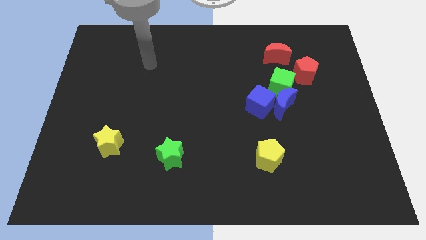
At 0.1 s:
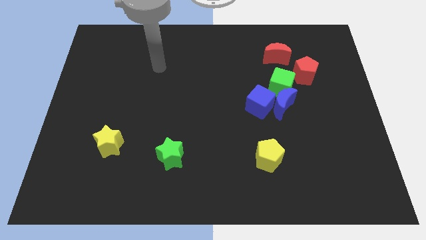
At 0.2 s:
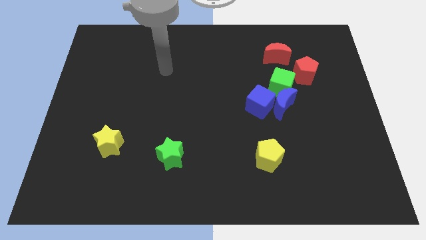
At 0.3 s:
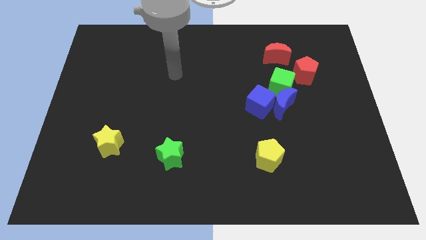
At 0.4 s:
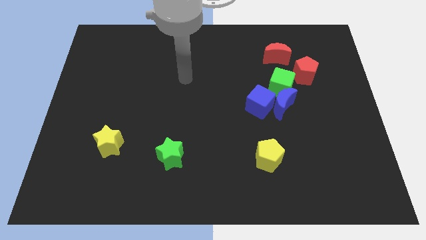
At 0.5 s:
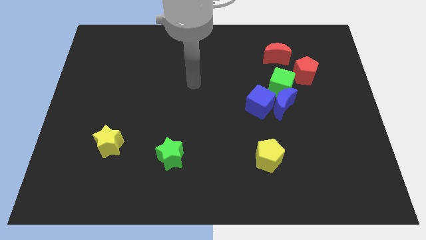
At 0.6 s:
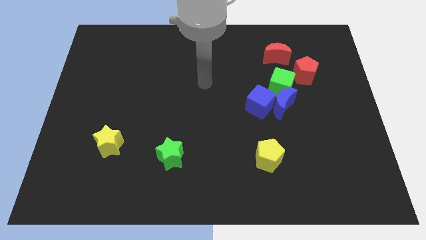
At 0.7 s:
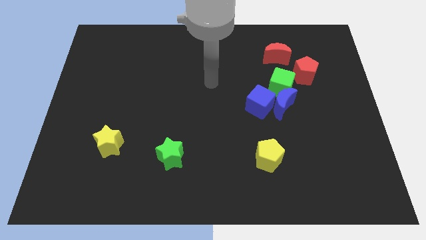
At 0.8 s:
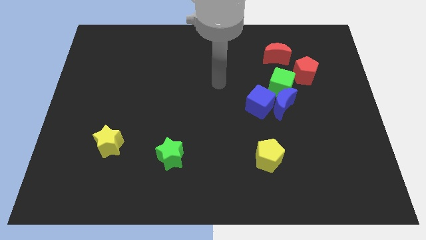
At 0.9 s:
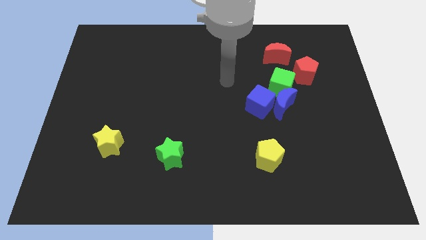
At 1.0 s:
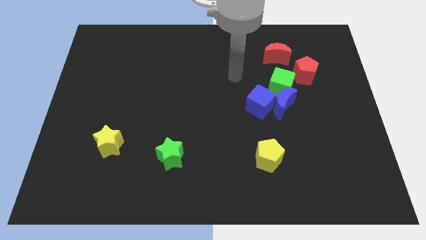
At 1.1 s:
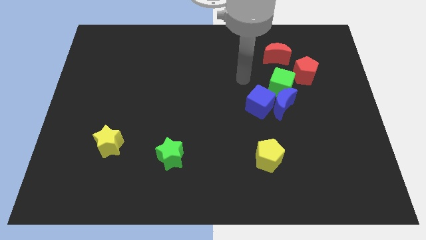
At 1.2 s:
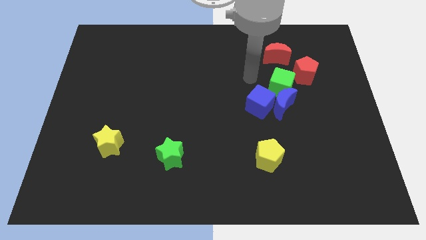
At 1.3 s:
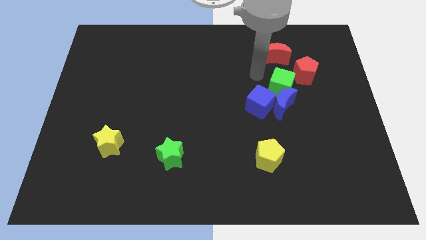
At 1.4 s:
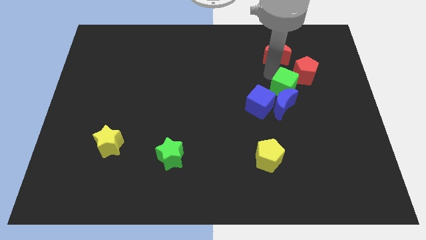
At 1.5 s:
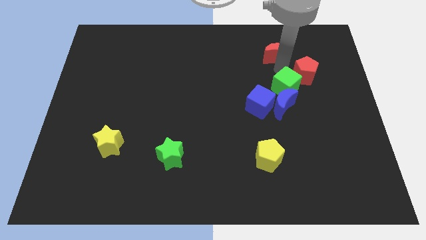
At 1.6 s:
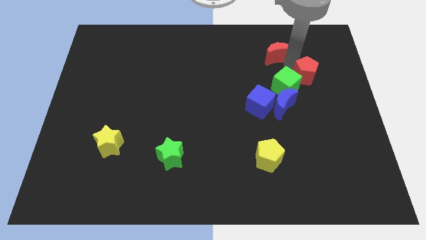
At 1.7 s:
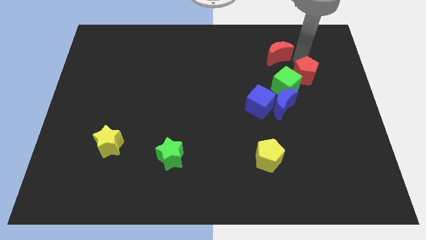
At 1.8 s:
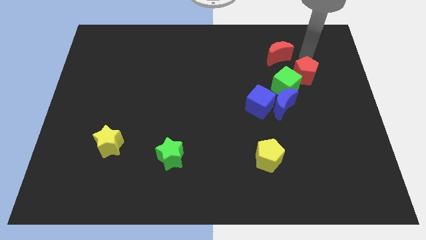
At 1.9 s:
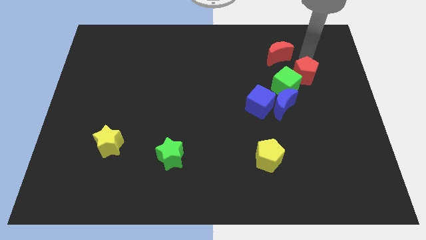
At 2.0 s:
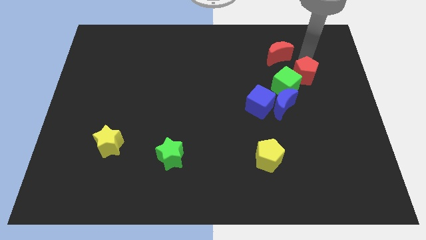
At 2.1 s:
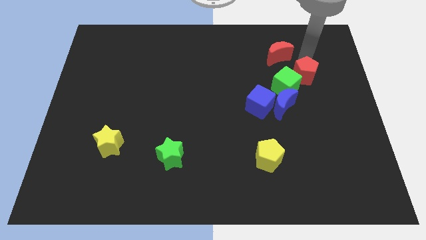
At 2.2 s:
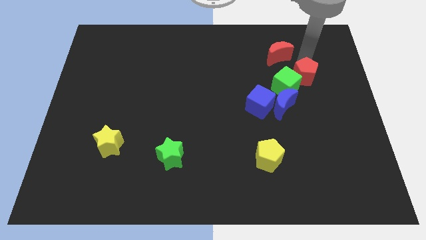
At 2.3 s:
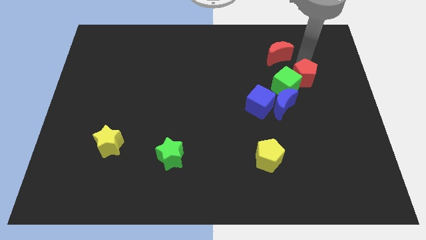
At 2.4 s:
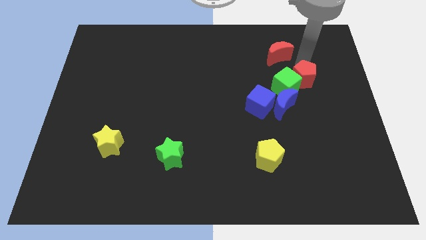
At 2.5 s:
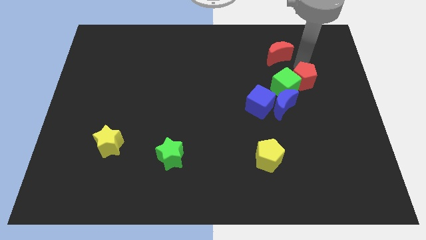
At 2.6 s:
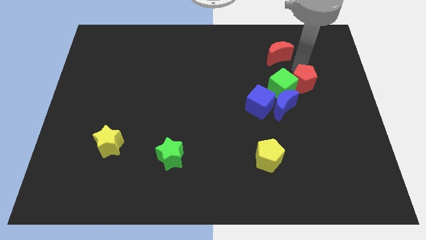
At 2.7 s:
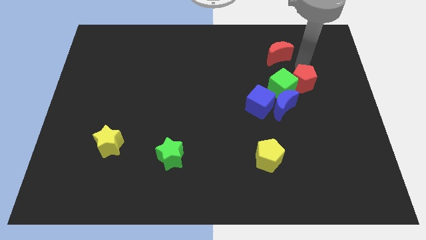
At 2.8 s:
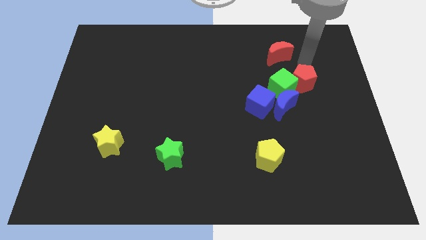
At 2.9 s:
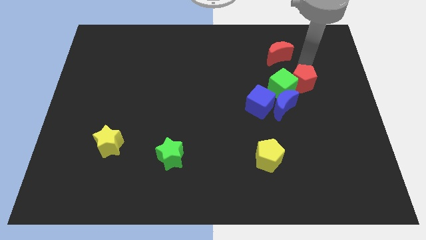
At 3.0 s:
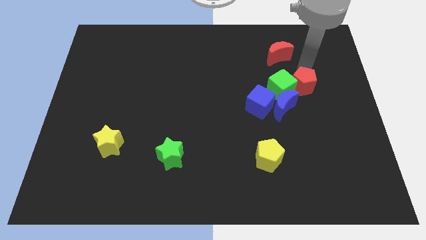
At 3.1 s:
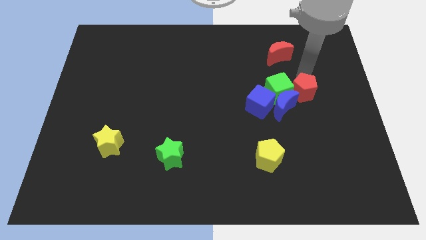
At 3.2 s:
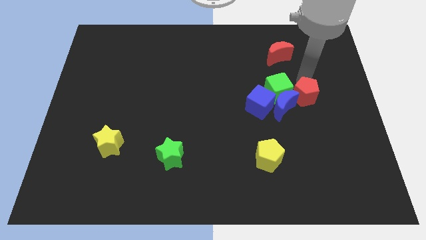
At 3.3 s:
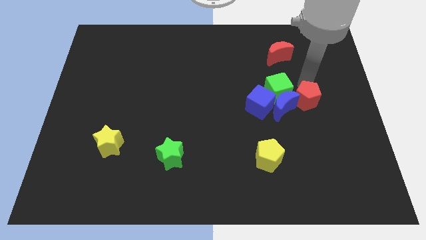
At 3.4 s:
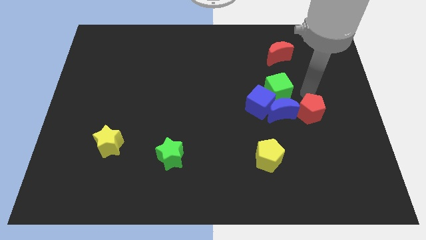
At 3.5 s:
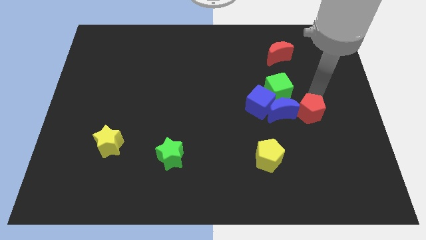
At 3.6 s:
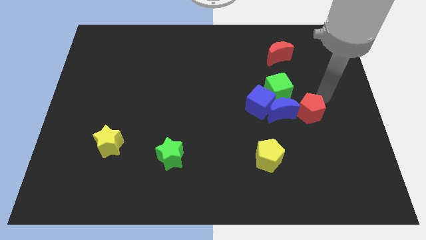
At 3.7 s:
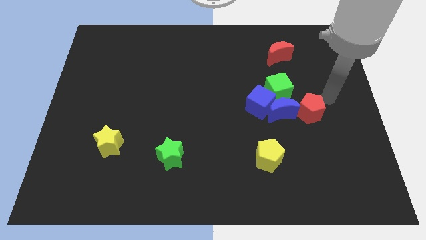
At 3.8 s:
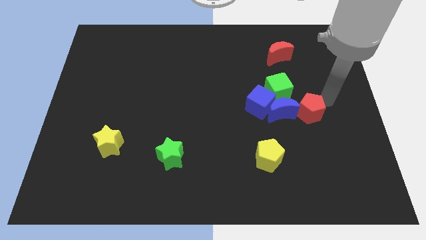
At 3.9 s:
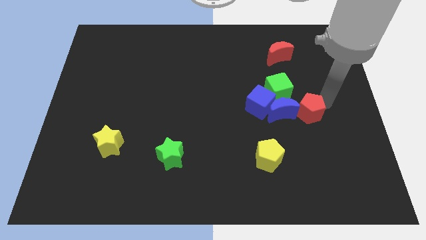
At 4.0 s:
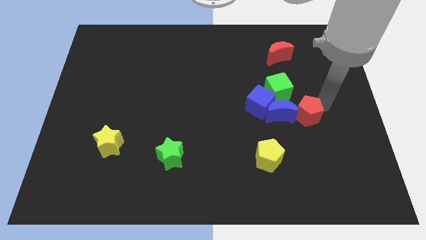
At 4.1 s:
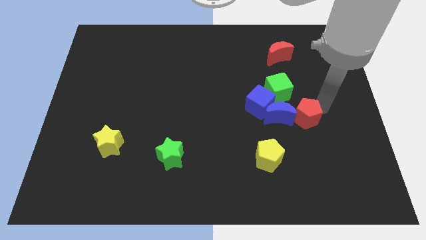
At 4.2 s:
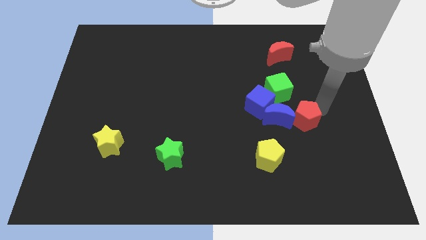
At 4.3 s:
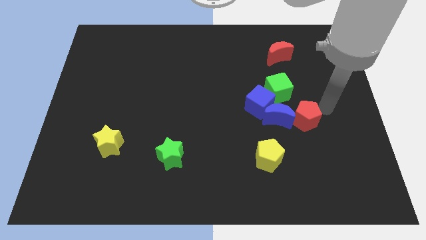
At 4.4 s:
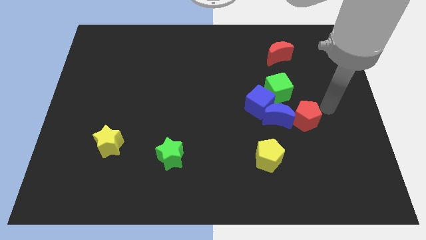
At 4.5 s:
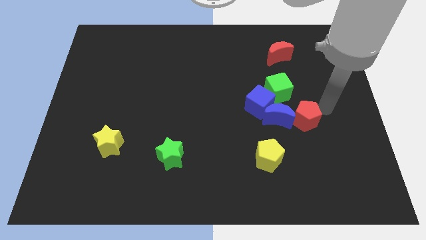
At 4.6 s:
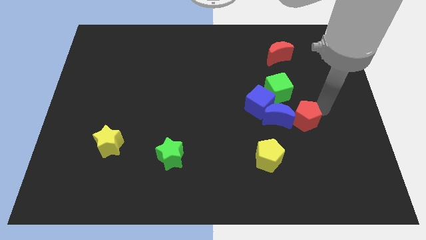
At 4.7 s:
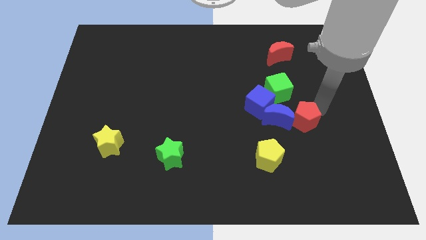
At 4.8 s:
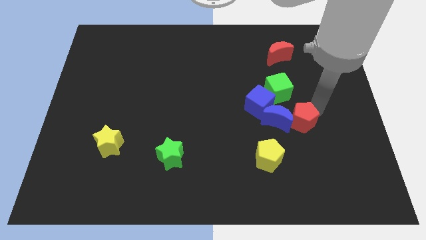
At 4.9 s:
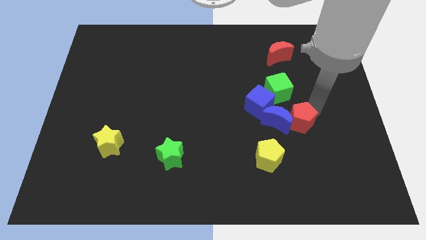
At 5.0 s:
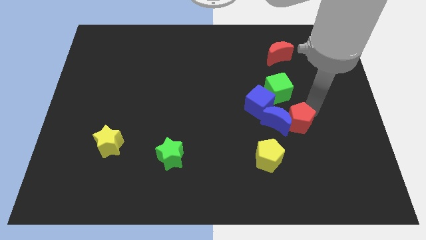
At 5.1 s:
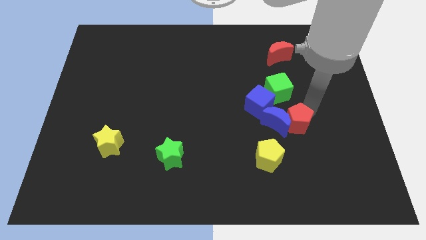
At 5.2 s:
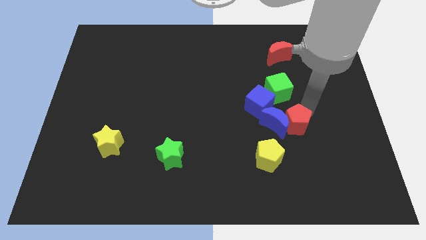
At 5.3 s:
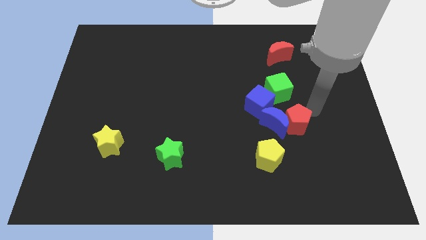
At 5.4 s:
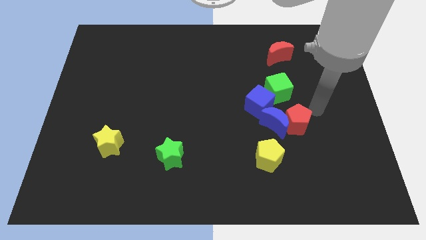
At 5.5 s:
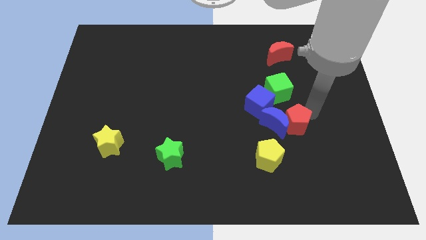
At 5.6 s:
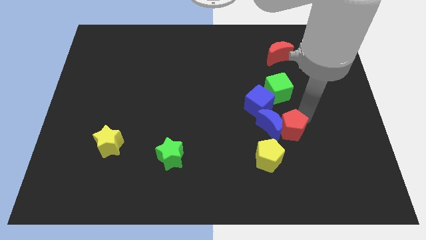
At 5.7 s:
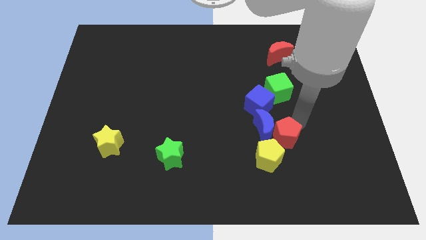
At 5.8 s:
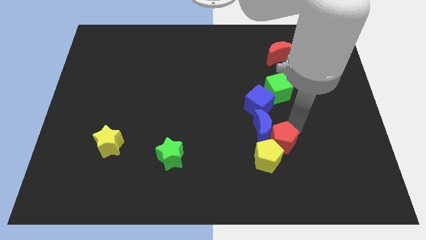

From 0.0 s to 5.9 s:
push the red pentagon to the bottom side of the blue cube

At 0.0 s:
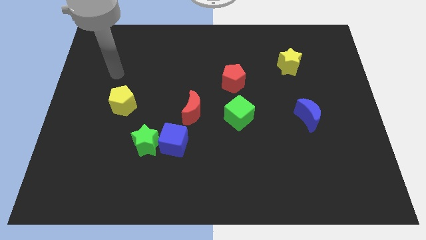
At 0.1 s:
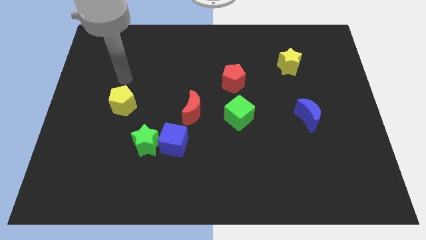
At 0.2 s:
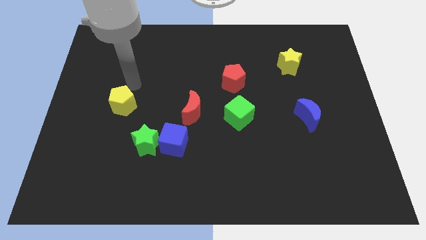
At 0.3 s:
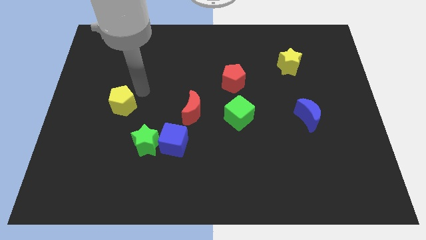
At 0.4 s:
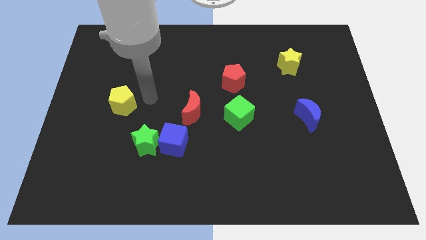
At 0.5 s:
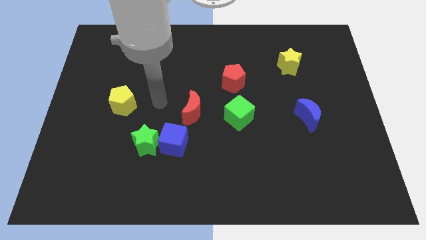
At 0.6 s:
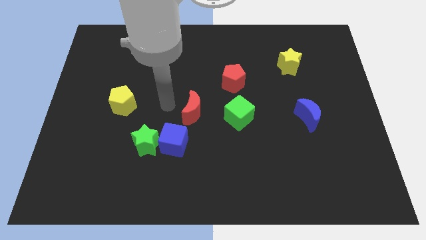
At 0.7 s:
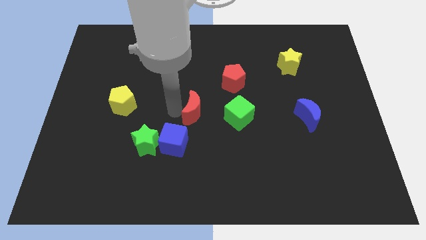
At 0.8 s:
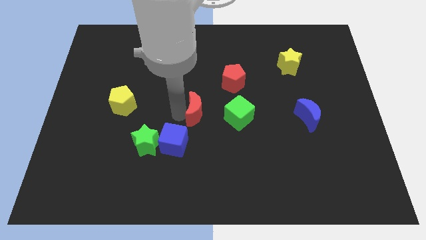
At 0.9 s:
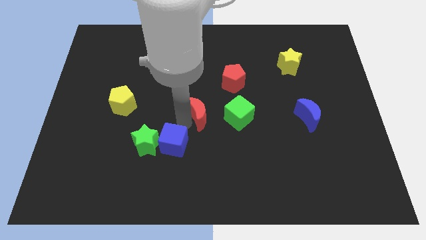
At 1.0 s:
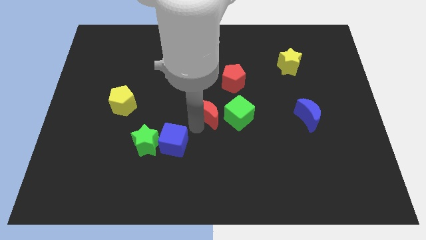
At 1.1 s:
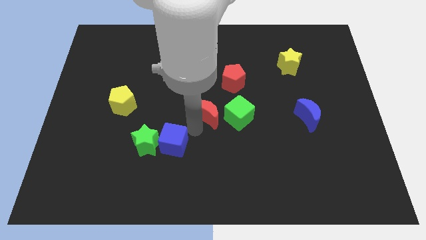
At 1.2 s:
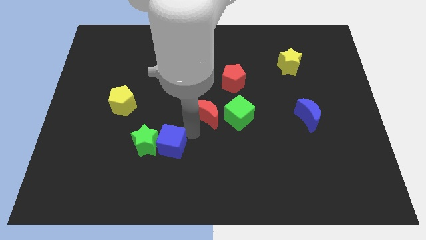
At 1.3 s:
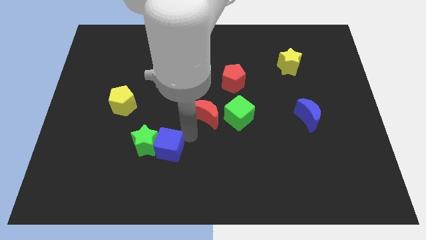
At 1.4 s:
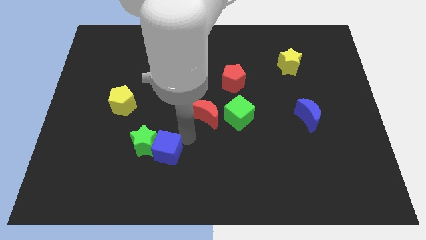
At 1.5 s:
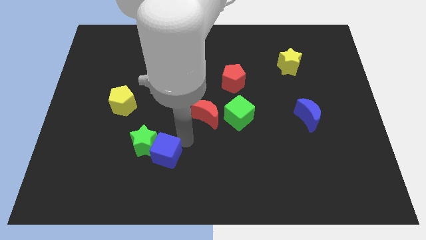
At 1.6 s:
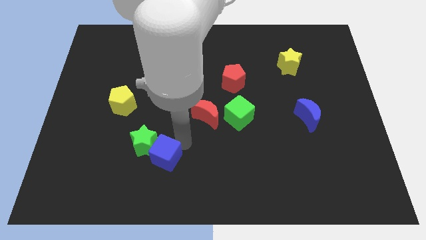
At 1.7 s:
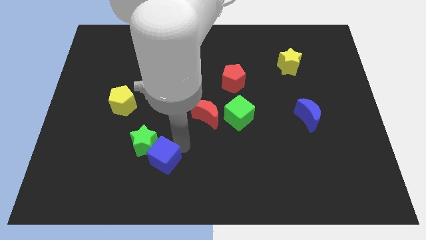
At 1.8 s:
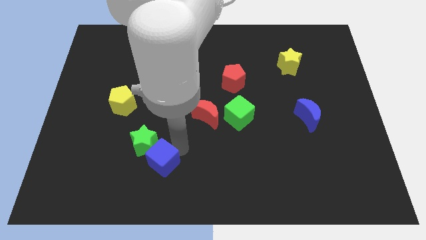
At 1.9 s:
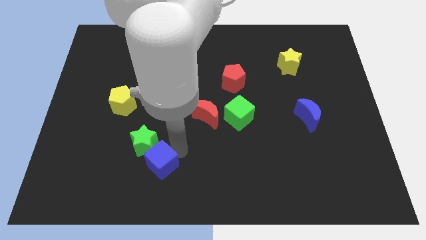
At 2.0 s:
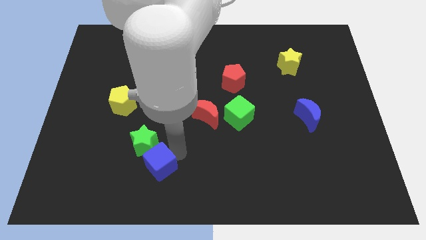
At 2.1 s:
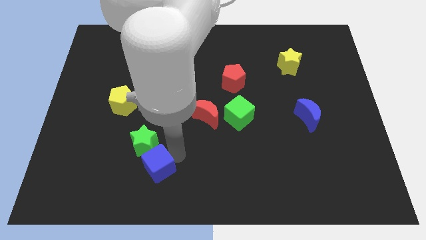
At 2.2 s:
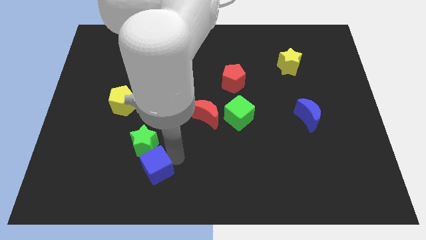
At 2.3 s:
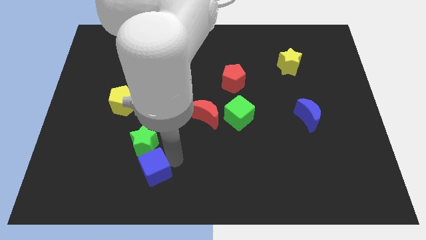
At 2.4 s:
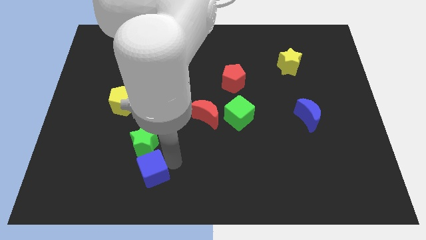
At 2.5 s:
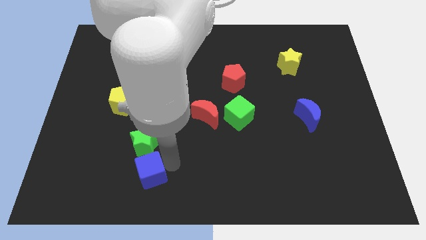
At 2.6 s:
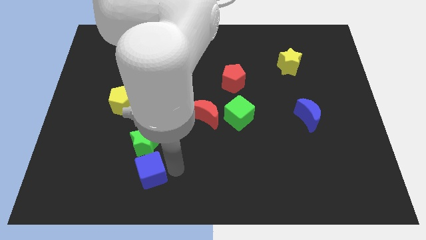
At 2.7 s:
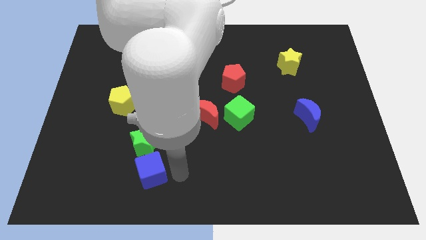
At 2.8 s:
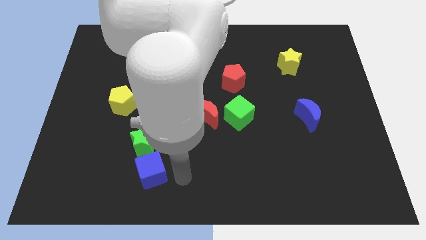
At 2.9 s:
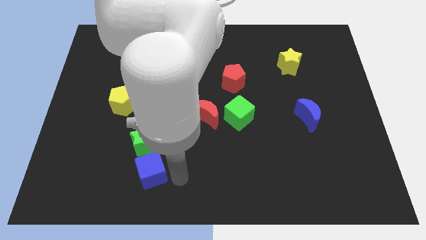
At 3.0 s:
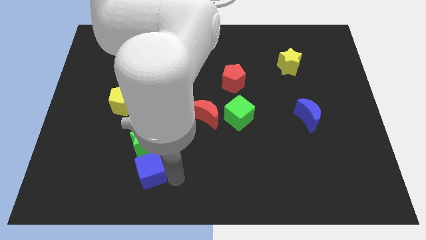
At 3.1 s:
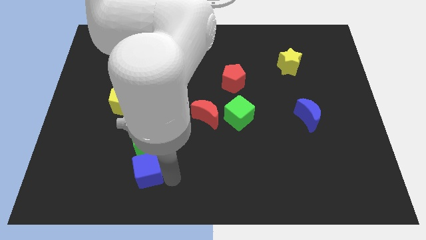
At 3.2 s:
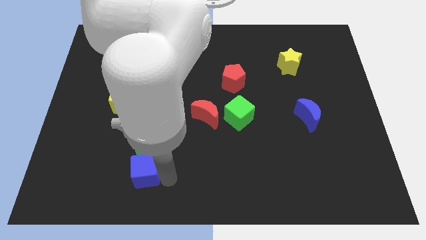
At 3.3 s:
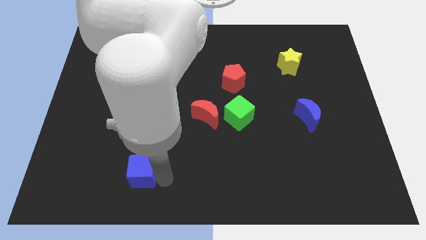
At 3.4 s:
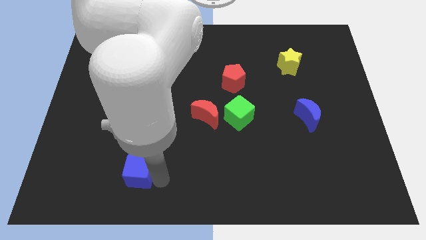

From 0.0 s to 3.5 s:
push the blue cube to the bottom left of the green star
